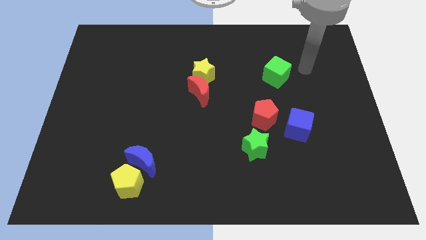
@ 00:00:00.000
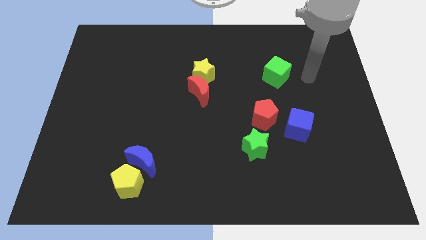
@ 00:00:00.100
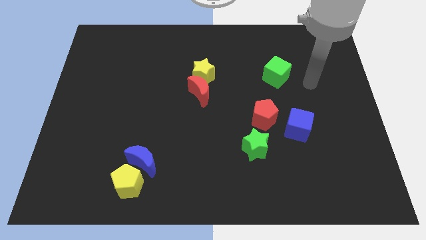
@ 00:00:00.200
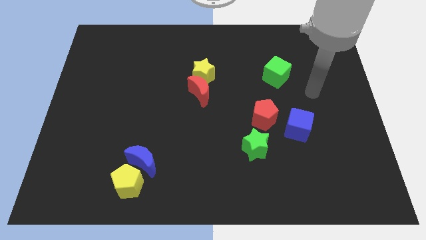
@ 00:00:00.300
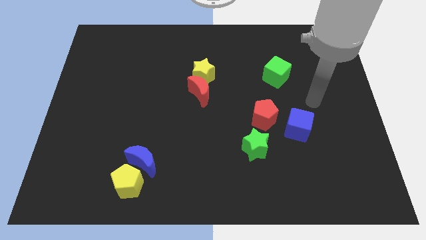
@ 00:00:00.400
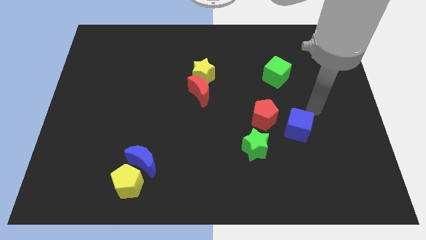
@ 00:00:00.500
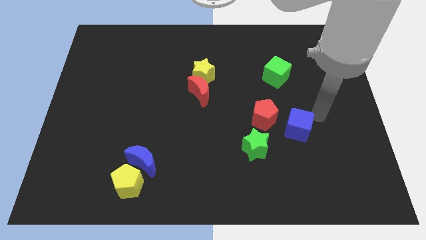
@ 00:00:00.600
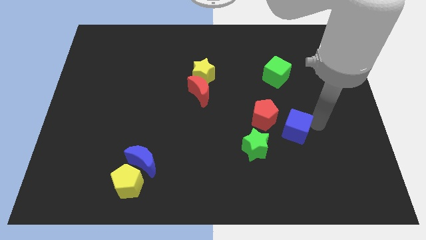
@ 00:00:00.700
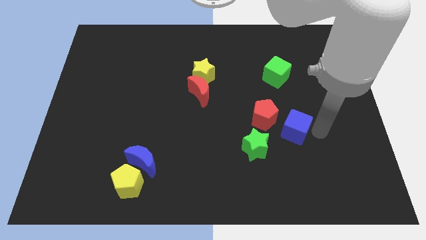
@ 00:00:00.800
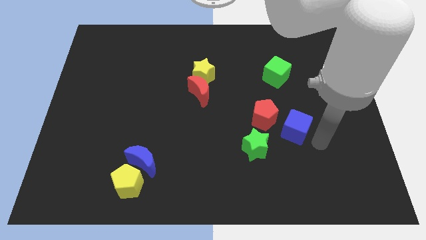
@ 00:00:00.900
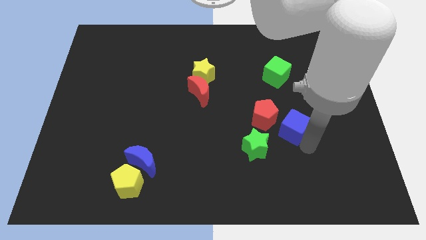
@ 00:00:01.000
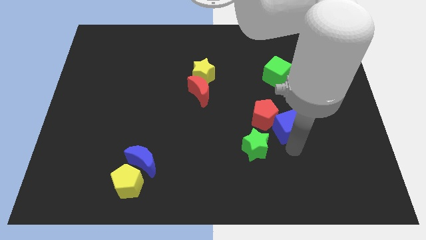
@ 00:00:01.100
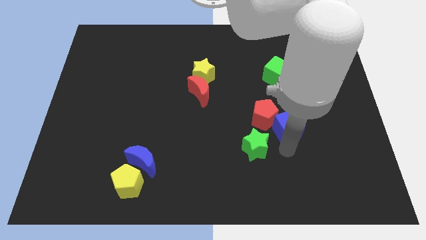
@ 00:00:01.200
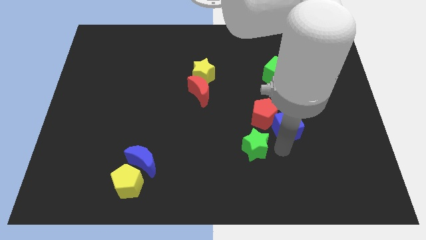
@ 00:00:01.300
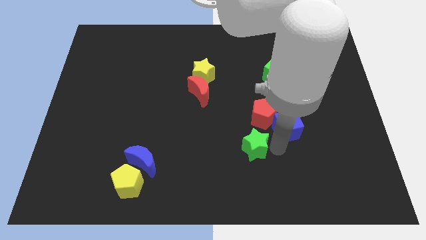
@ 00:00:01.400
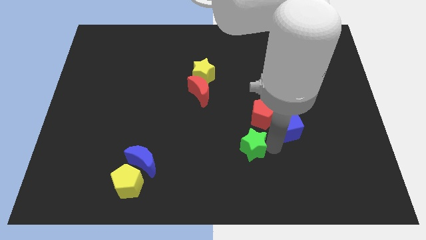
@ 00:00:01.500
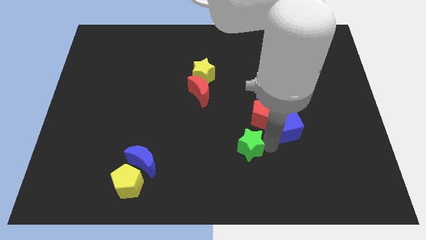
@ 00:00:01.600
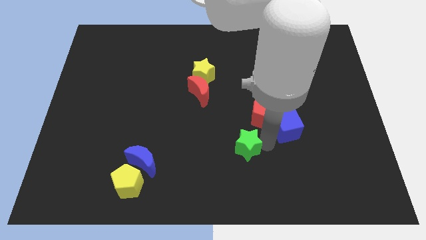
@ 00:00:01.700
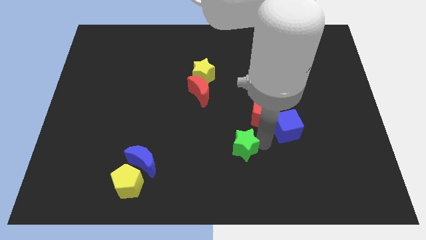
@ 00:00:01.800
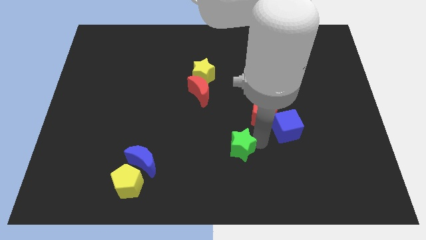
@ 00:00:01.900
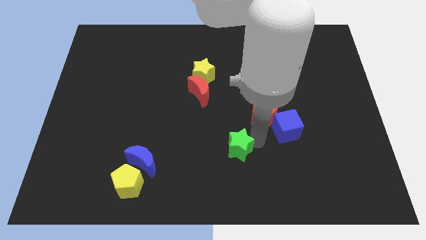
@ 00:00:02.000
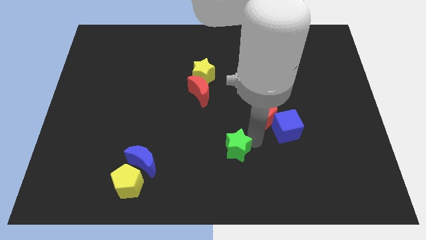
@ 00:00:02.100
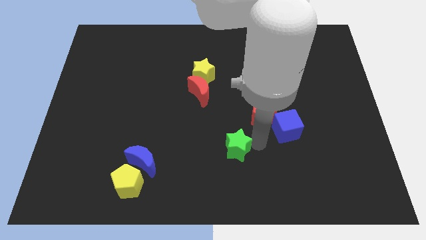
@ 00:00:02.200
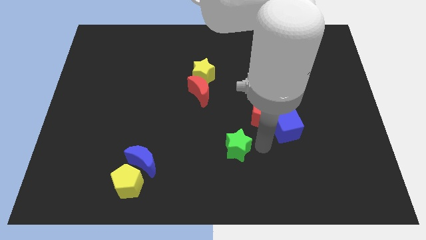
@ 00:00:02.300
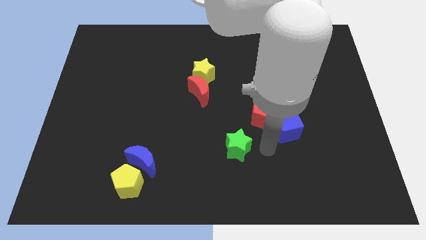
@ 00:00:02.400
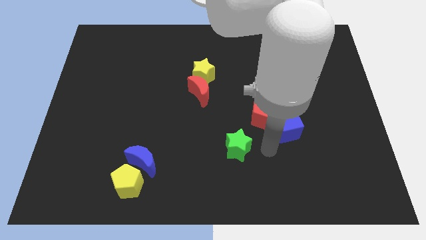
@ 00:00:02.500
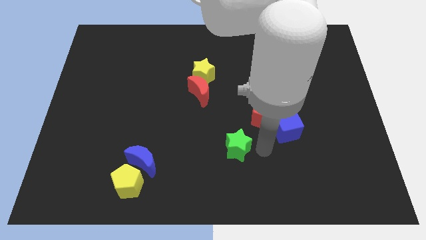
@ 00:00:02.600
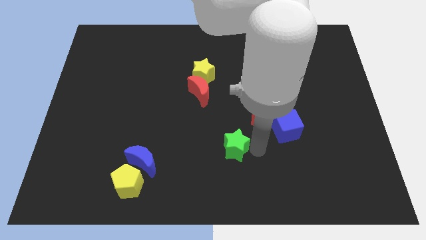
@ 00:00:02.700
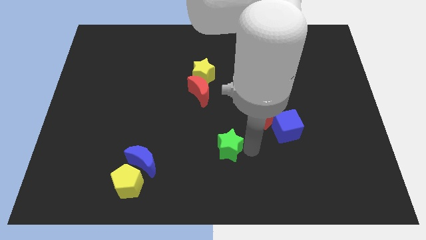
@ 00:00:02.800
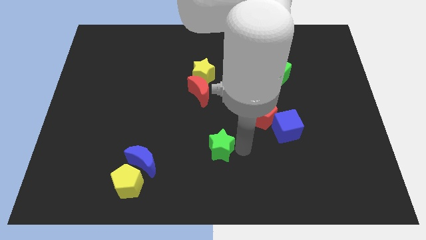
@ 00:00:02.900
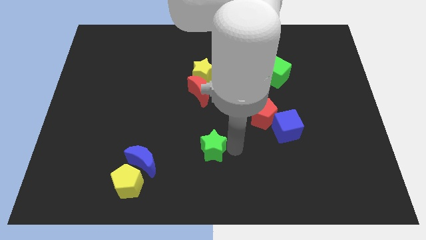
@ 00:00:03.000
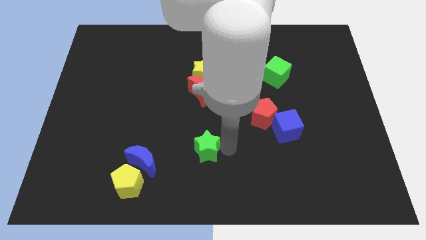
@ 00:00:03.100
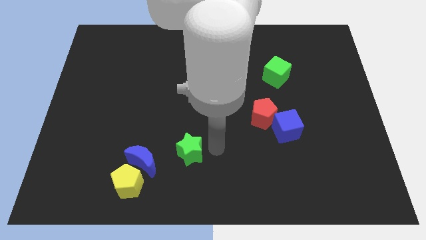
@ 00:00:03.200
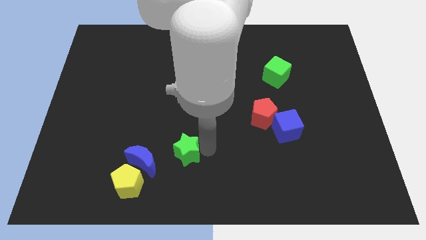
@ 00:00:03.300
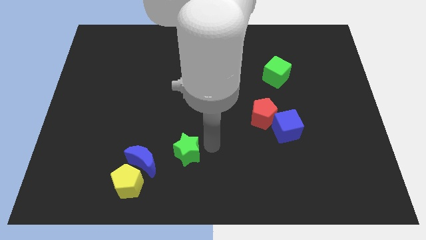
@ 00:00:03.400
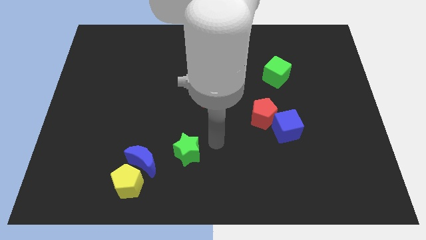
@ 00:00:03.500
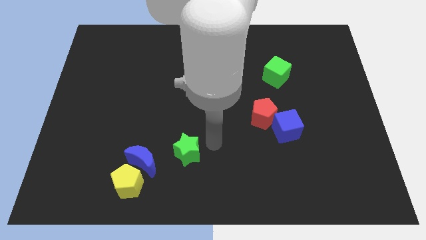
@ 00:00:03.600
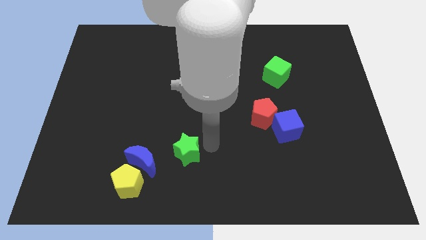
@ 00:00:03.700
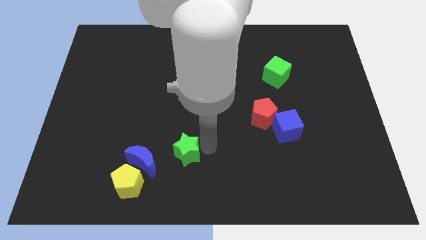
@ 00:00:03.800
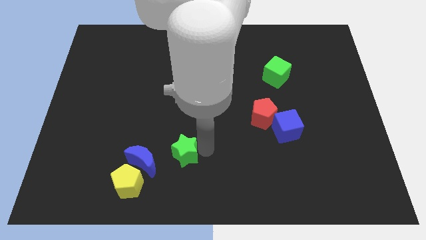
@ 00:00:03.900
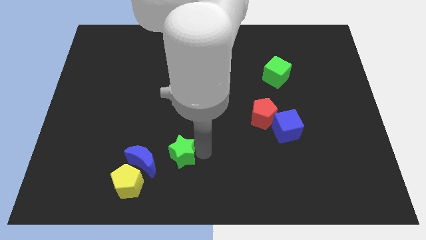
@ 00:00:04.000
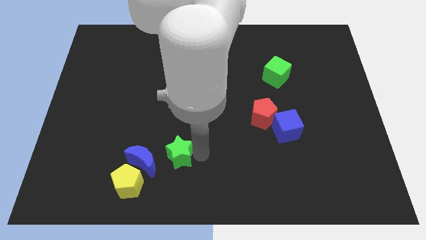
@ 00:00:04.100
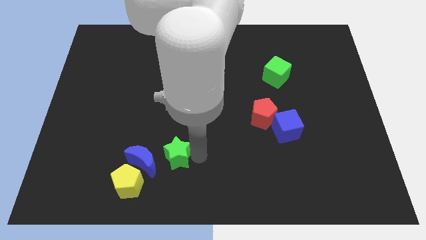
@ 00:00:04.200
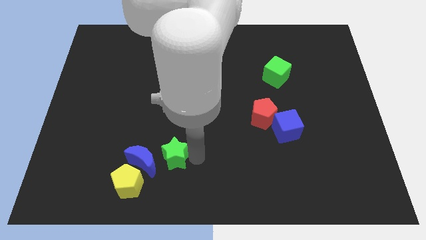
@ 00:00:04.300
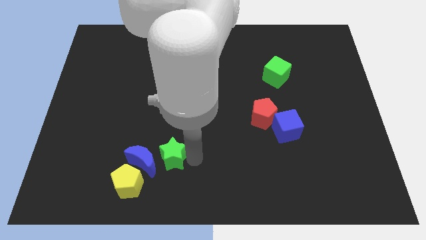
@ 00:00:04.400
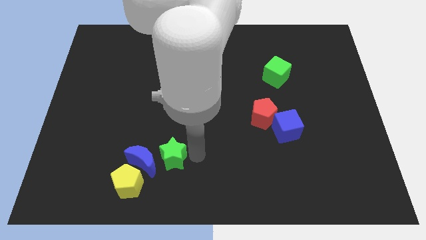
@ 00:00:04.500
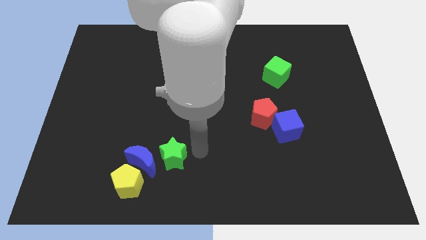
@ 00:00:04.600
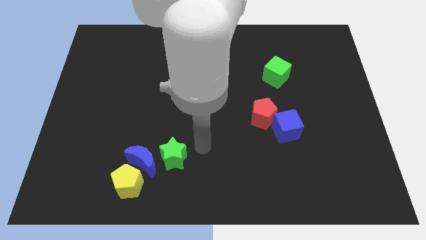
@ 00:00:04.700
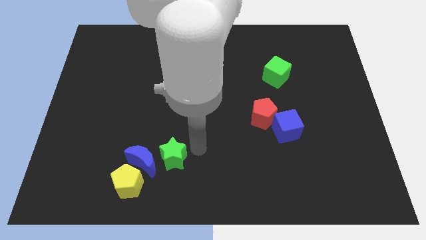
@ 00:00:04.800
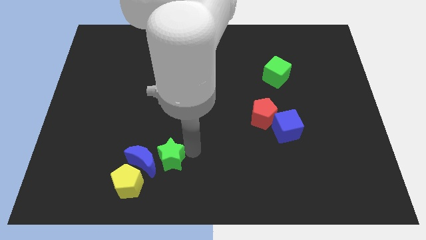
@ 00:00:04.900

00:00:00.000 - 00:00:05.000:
push the green star close to the blue moon

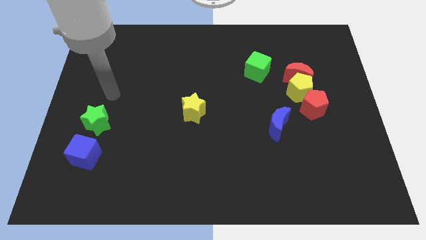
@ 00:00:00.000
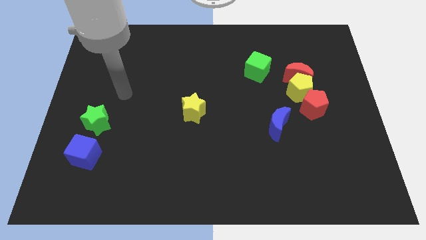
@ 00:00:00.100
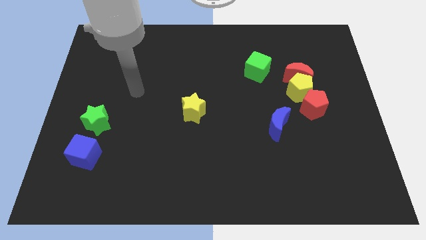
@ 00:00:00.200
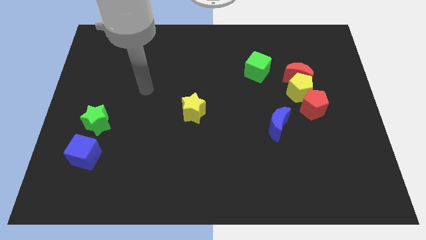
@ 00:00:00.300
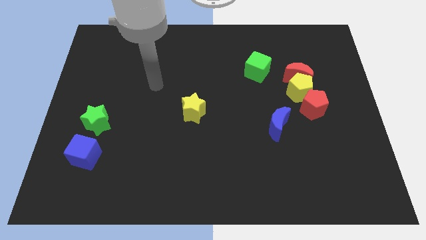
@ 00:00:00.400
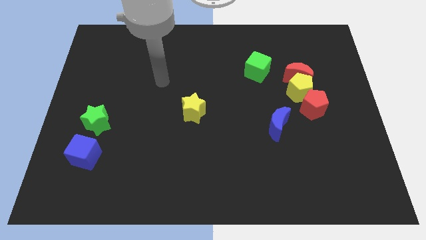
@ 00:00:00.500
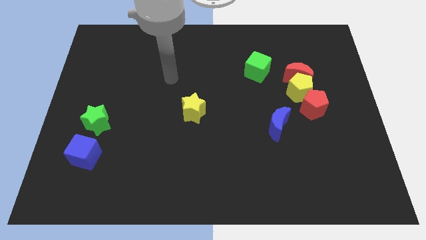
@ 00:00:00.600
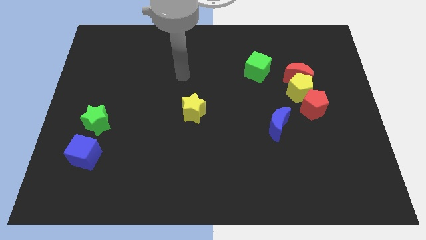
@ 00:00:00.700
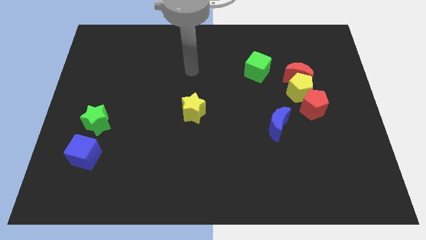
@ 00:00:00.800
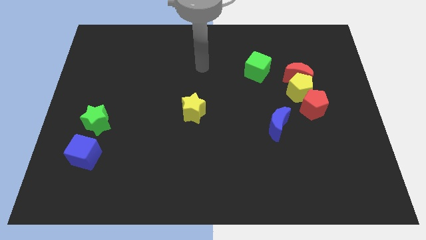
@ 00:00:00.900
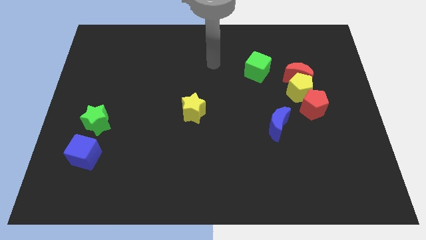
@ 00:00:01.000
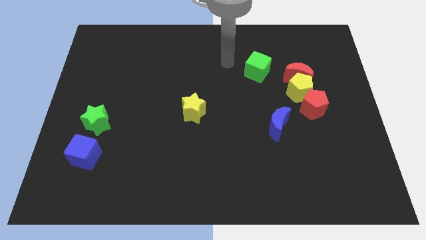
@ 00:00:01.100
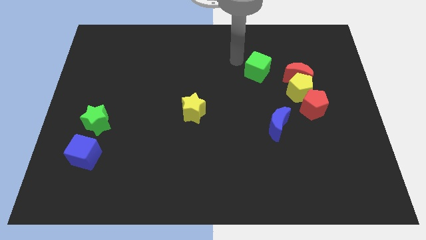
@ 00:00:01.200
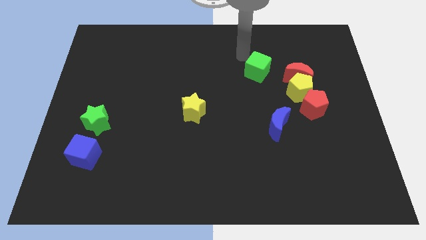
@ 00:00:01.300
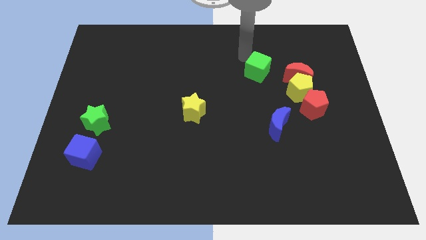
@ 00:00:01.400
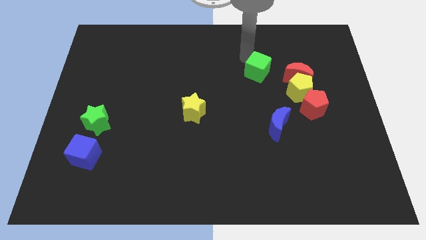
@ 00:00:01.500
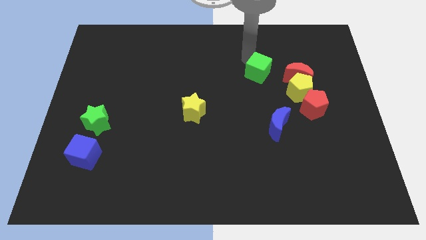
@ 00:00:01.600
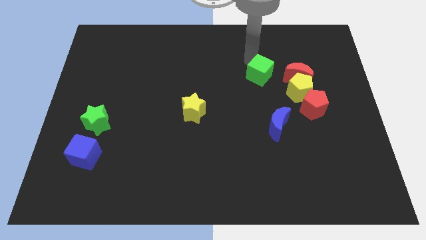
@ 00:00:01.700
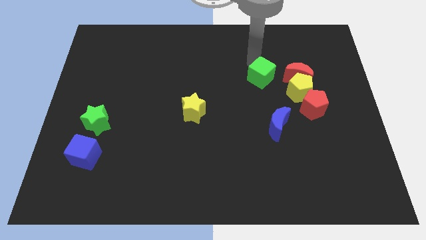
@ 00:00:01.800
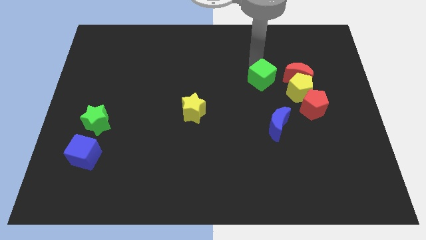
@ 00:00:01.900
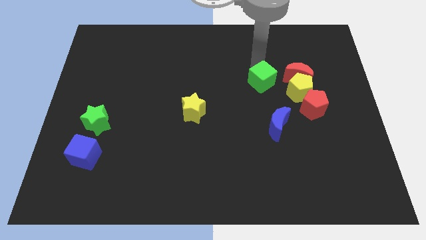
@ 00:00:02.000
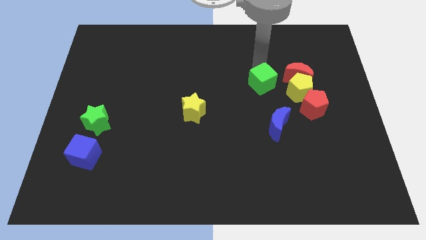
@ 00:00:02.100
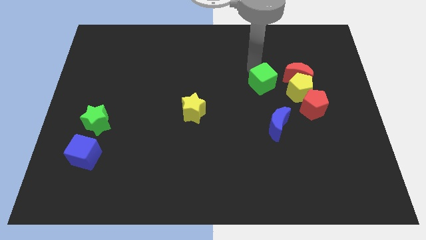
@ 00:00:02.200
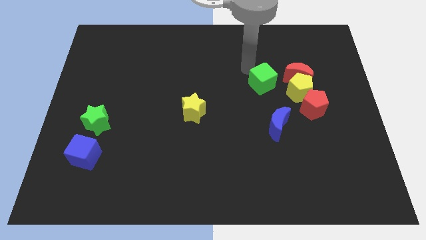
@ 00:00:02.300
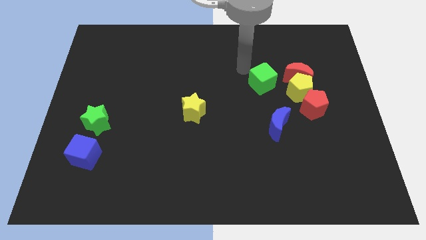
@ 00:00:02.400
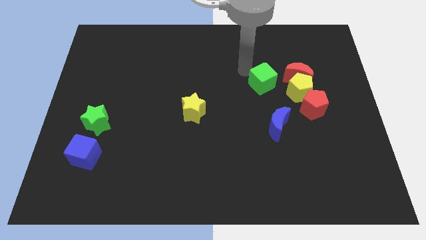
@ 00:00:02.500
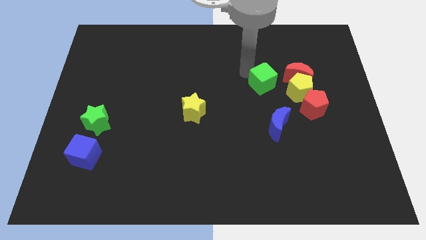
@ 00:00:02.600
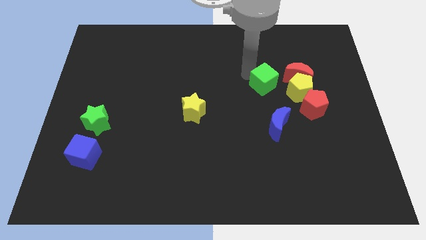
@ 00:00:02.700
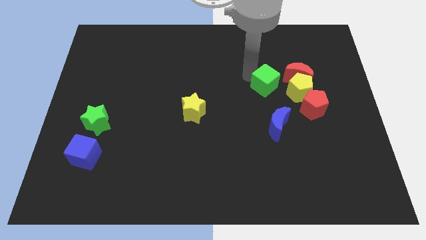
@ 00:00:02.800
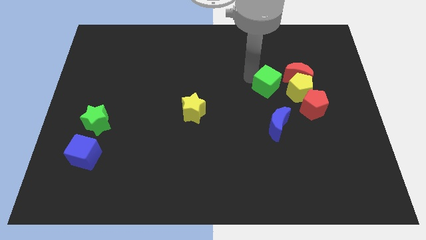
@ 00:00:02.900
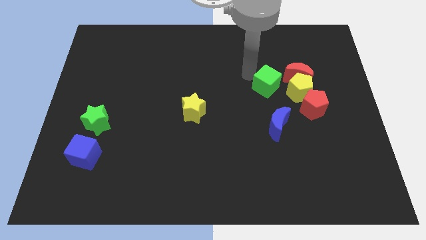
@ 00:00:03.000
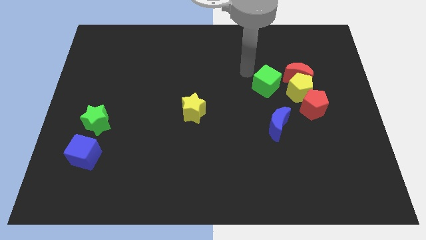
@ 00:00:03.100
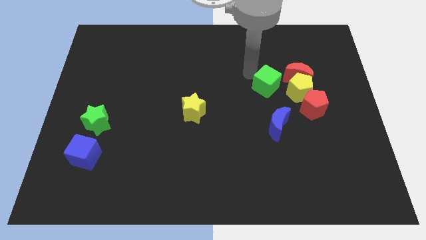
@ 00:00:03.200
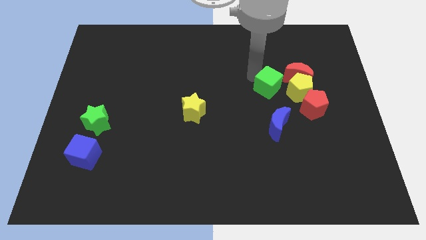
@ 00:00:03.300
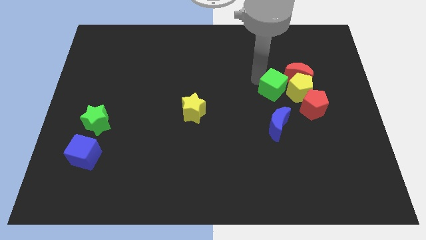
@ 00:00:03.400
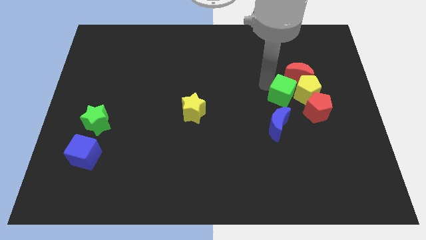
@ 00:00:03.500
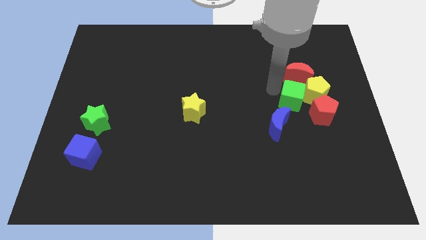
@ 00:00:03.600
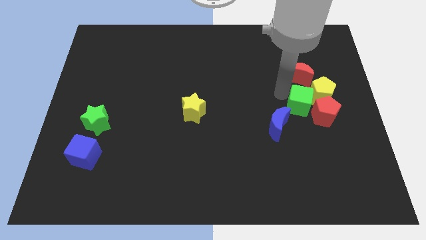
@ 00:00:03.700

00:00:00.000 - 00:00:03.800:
put the green cube towards the red pentagon
